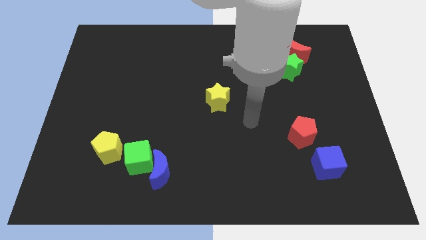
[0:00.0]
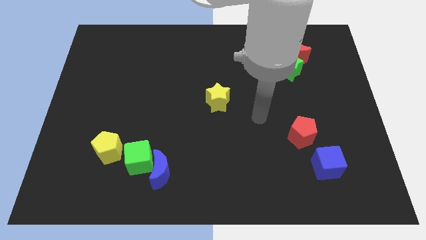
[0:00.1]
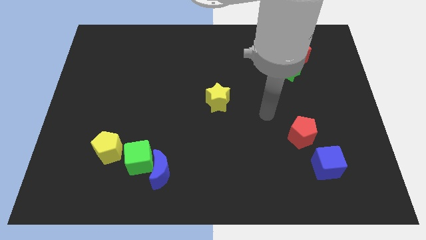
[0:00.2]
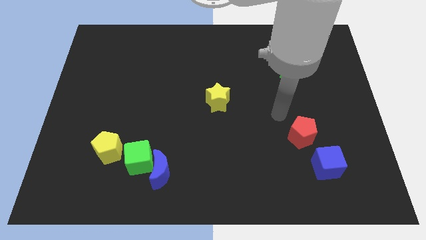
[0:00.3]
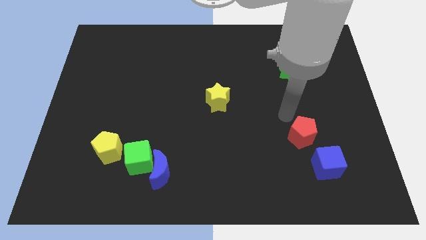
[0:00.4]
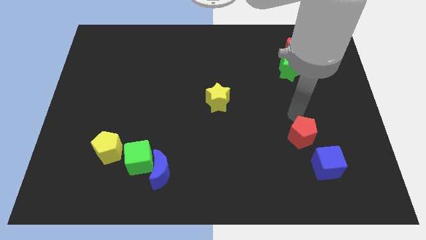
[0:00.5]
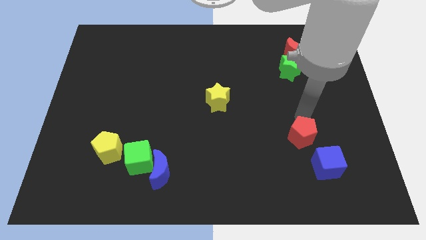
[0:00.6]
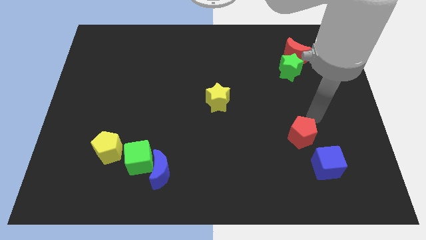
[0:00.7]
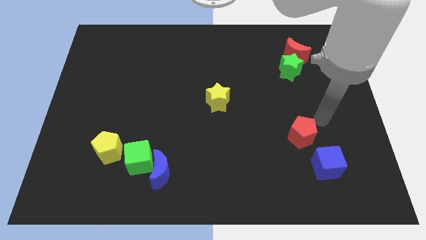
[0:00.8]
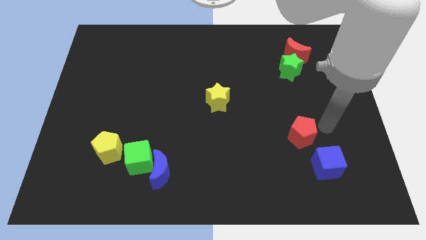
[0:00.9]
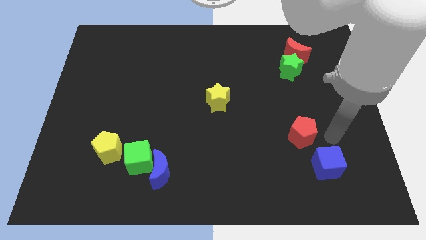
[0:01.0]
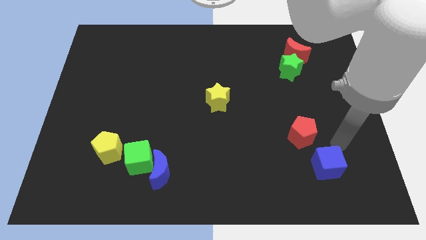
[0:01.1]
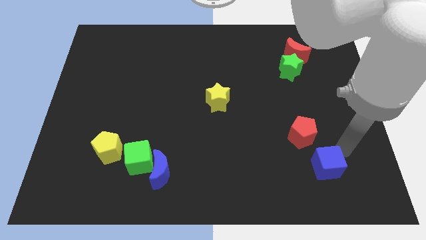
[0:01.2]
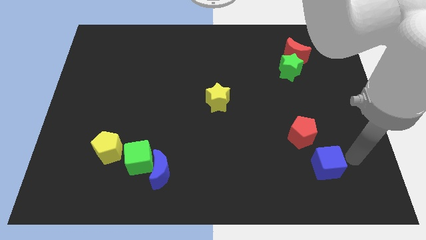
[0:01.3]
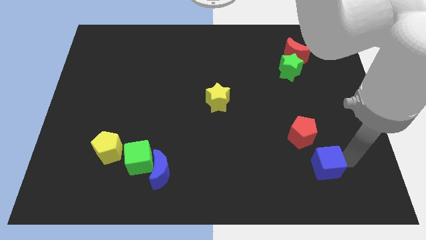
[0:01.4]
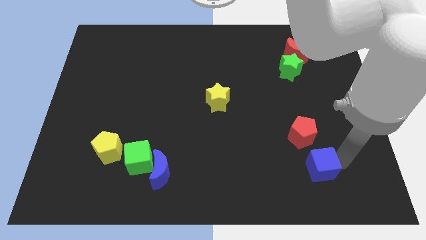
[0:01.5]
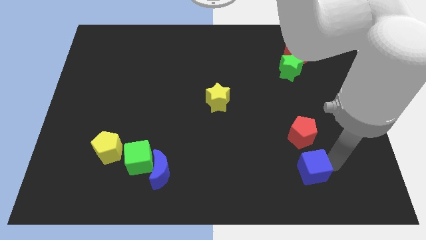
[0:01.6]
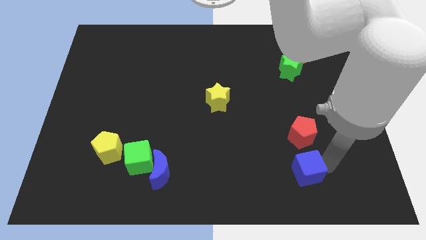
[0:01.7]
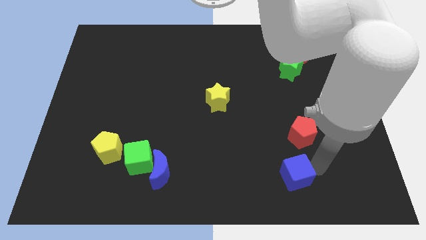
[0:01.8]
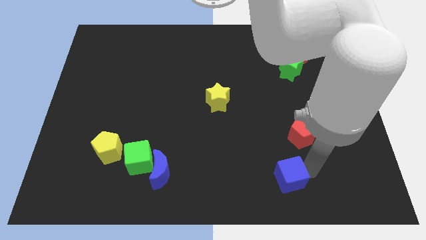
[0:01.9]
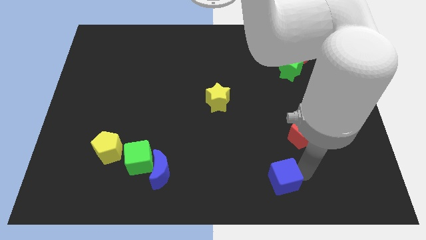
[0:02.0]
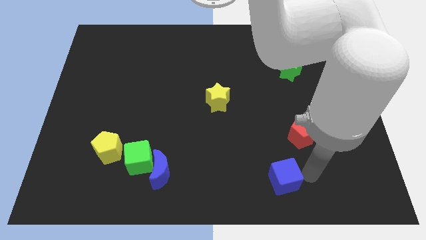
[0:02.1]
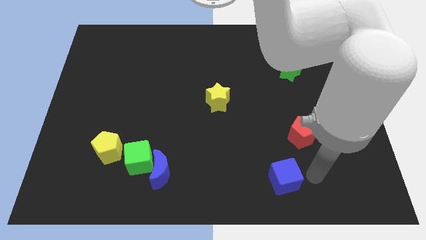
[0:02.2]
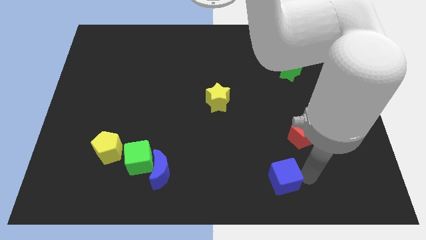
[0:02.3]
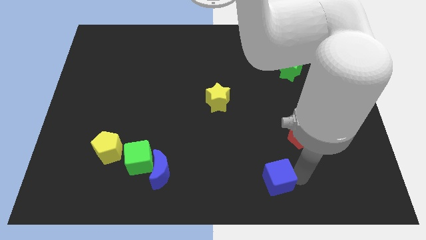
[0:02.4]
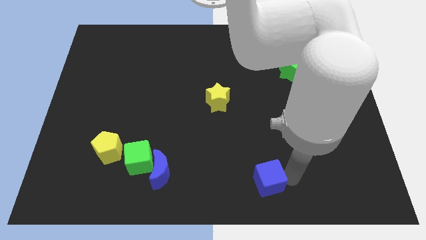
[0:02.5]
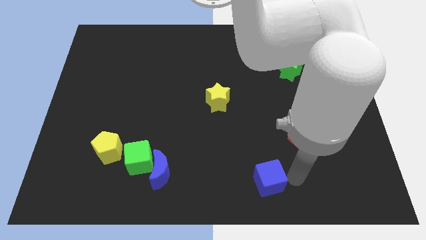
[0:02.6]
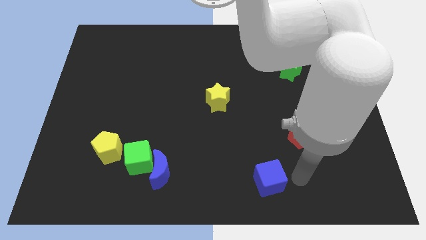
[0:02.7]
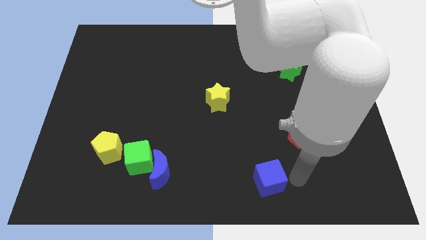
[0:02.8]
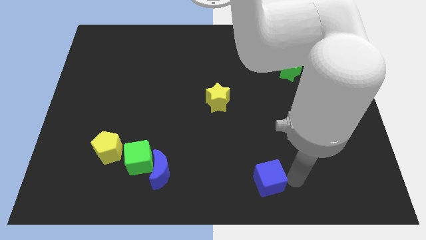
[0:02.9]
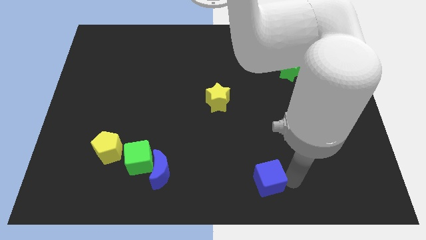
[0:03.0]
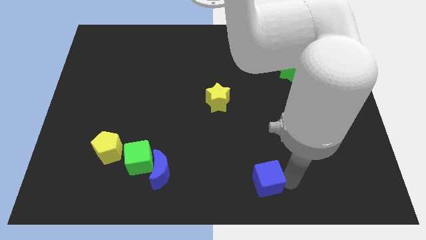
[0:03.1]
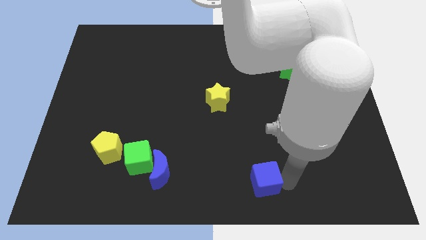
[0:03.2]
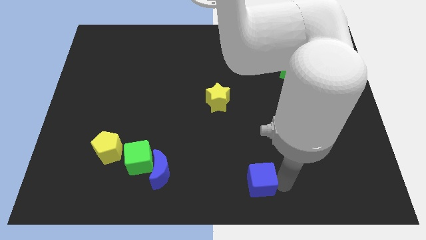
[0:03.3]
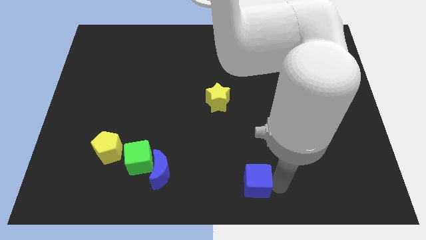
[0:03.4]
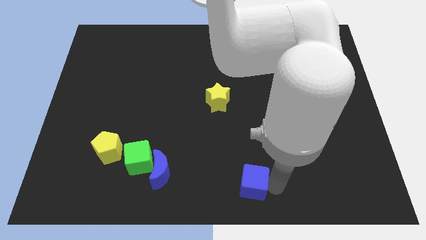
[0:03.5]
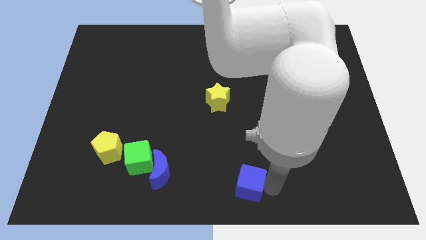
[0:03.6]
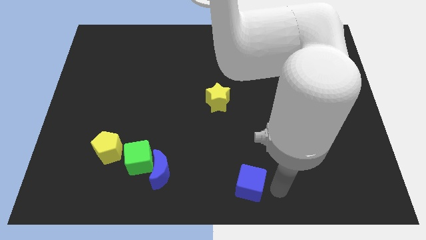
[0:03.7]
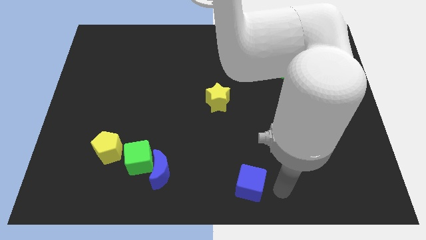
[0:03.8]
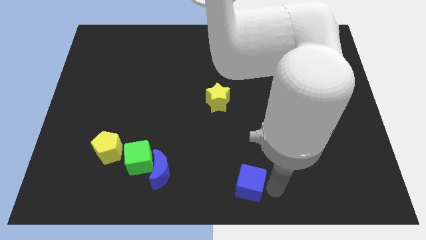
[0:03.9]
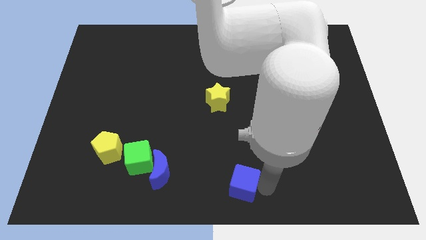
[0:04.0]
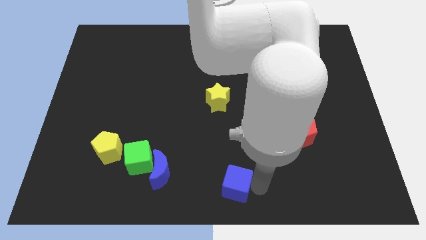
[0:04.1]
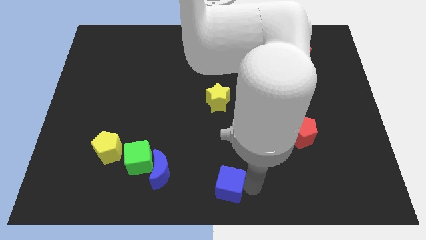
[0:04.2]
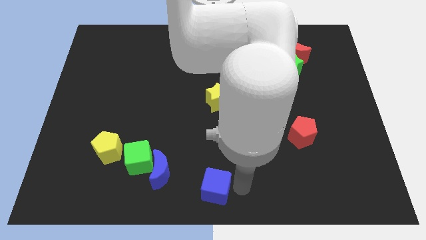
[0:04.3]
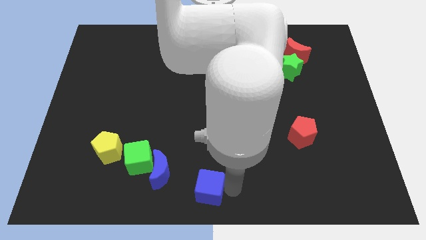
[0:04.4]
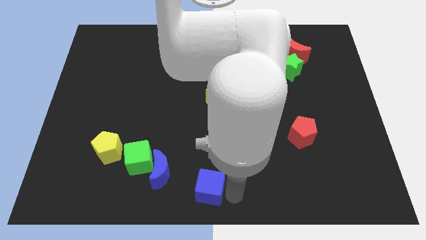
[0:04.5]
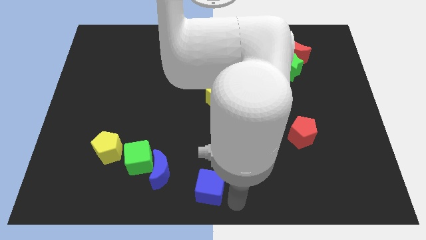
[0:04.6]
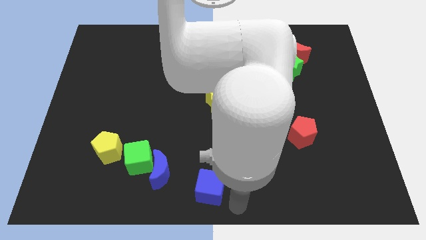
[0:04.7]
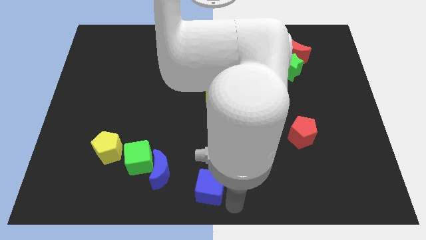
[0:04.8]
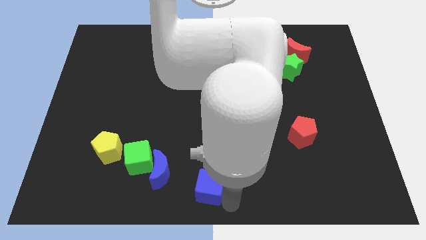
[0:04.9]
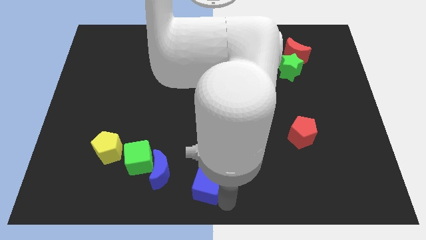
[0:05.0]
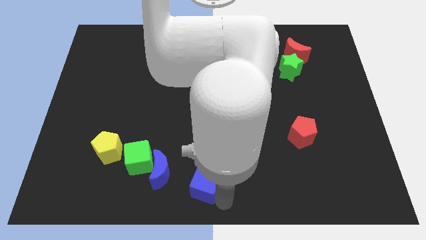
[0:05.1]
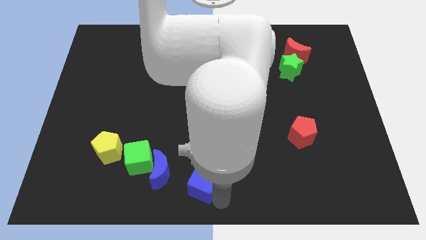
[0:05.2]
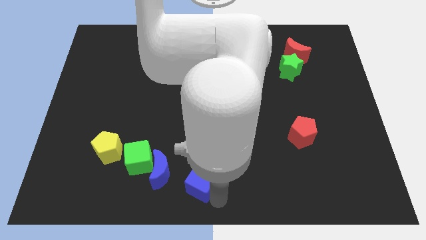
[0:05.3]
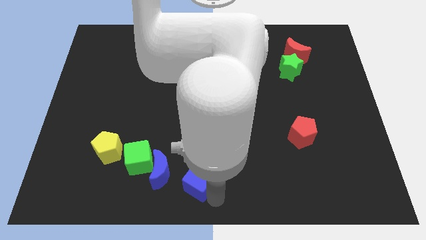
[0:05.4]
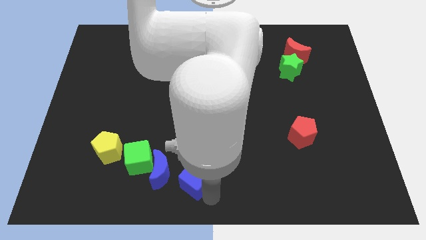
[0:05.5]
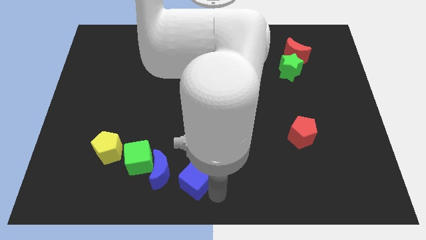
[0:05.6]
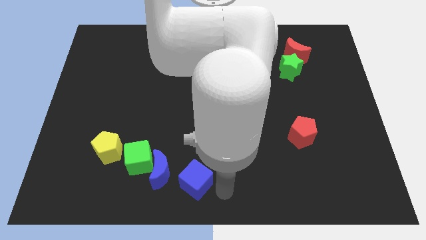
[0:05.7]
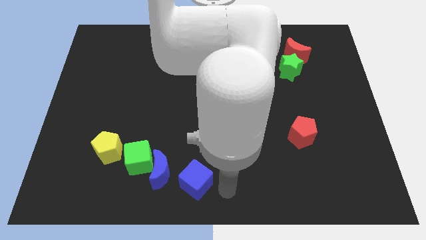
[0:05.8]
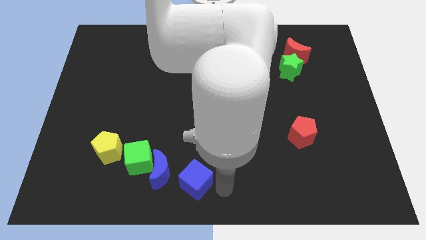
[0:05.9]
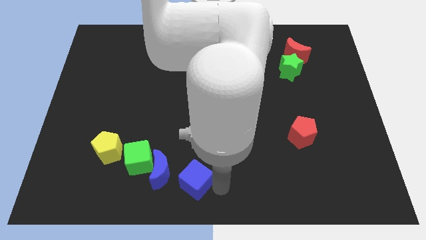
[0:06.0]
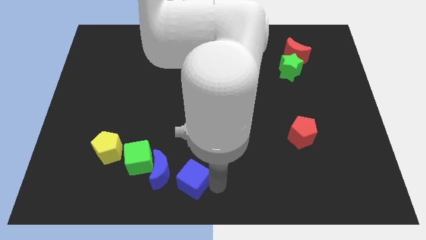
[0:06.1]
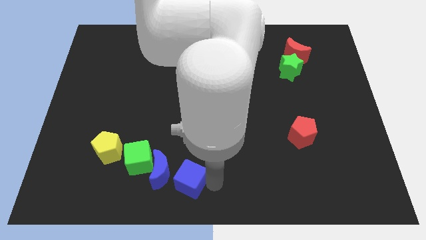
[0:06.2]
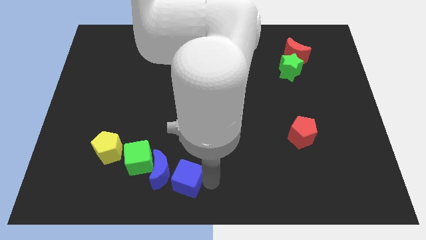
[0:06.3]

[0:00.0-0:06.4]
move the blue cube close to the blue moon

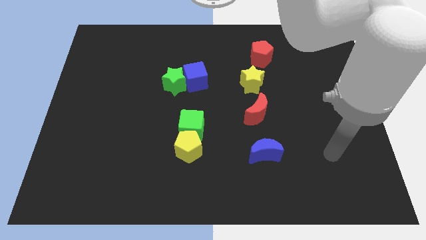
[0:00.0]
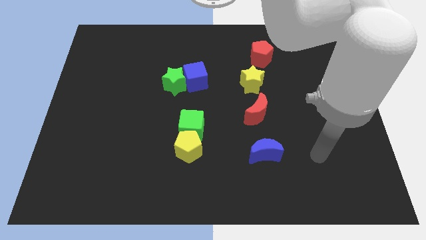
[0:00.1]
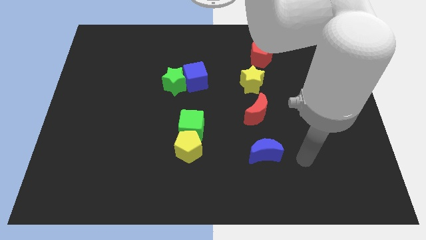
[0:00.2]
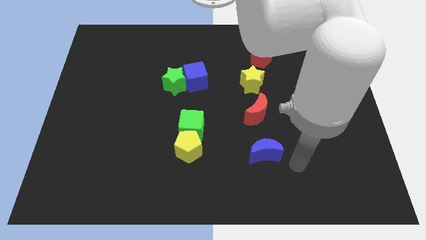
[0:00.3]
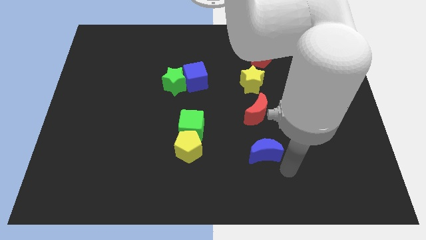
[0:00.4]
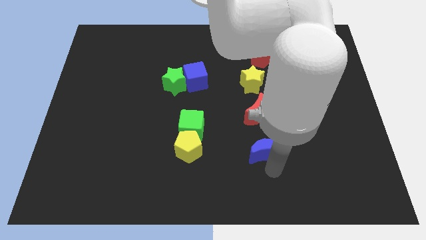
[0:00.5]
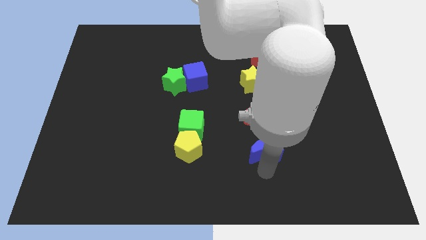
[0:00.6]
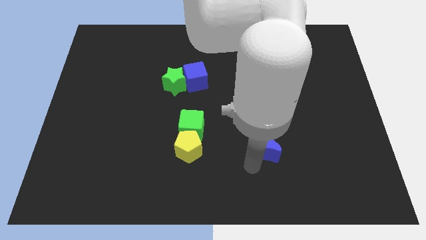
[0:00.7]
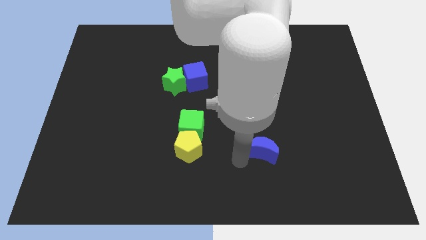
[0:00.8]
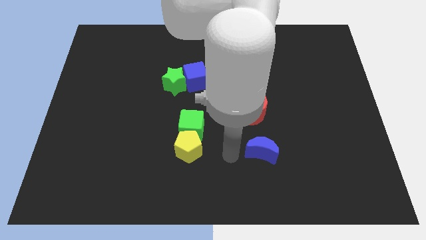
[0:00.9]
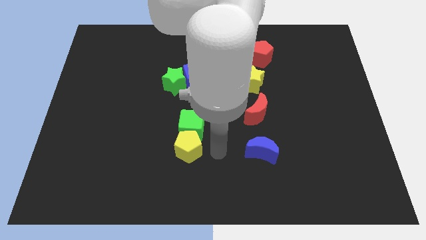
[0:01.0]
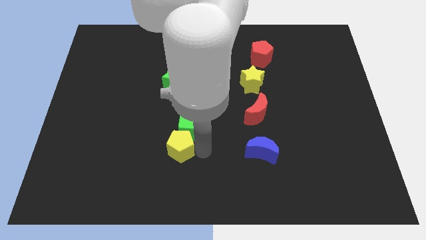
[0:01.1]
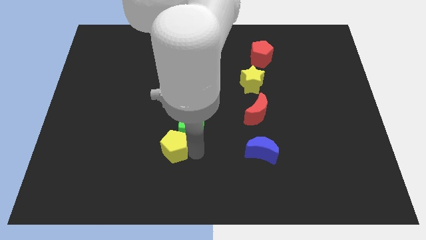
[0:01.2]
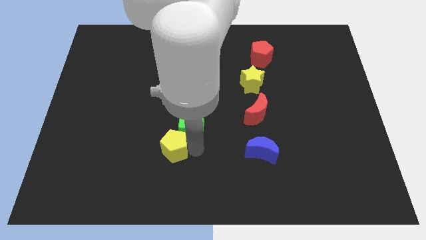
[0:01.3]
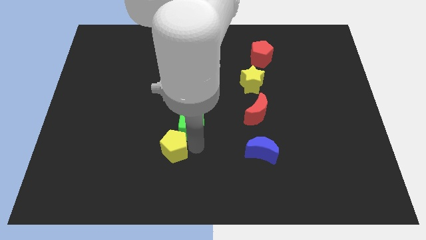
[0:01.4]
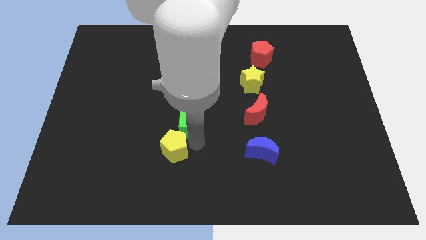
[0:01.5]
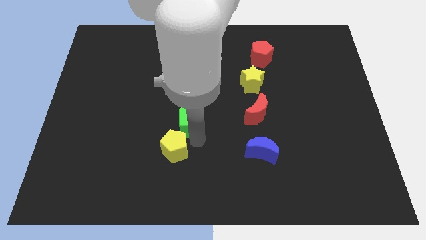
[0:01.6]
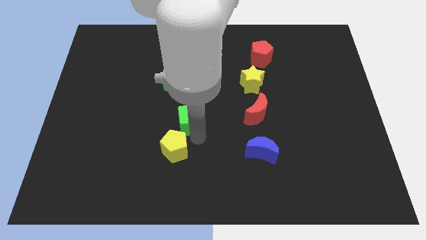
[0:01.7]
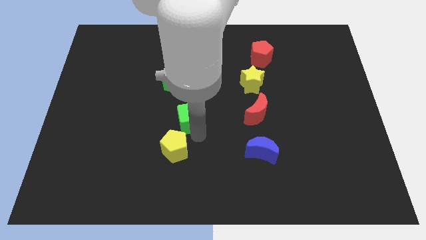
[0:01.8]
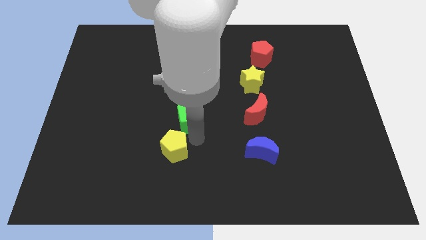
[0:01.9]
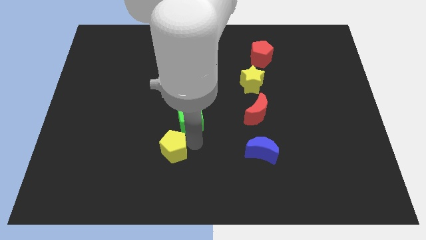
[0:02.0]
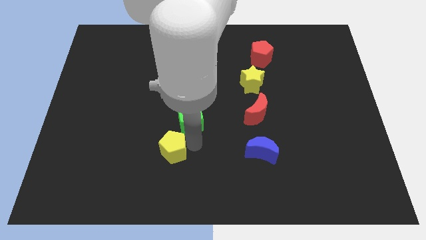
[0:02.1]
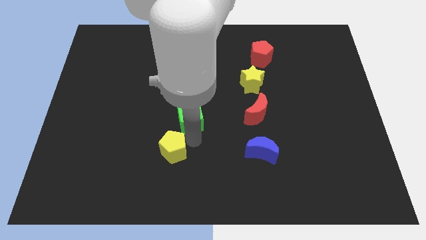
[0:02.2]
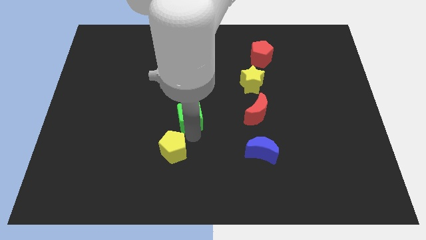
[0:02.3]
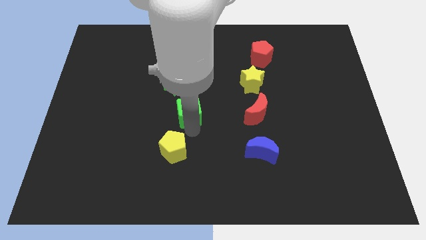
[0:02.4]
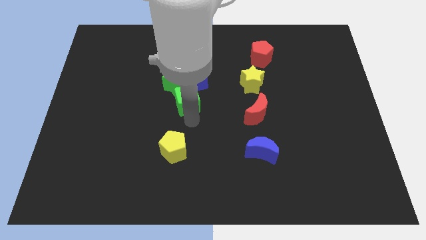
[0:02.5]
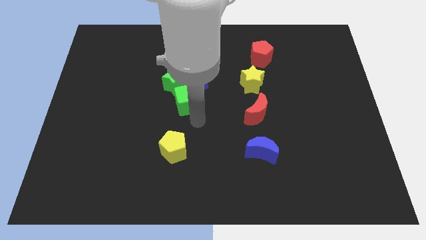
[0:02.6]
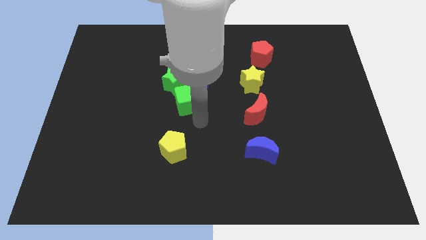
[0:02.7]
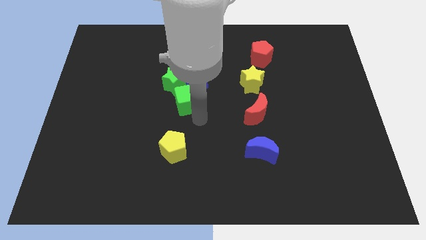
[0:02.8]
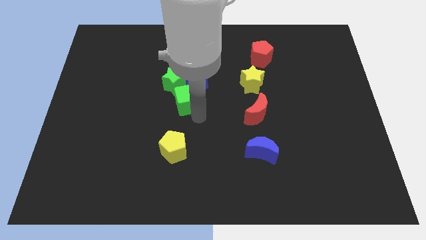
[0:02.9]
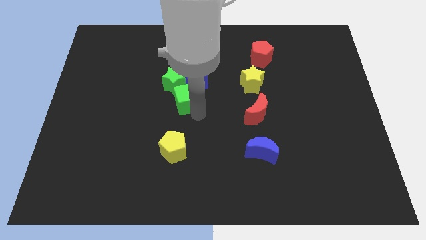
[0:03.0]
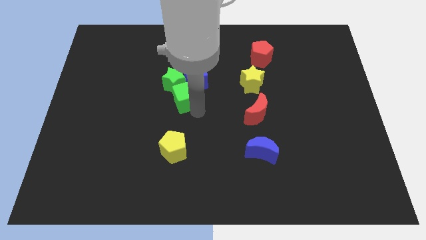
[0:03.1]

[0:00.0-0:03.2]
push the green cube close to the green star
